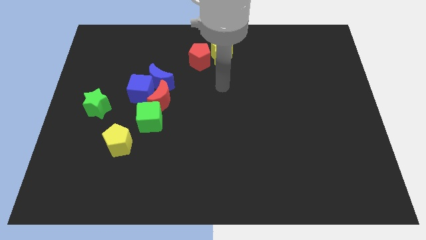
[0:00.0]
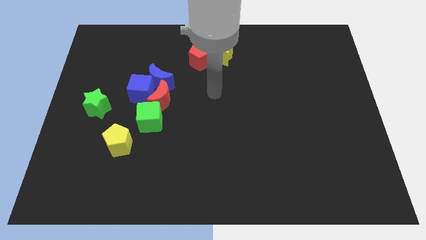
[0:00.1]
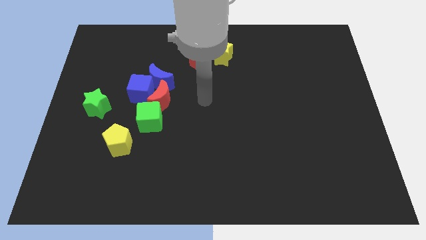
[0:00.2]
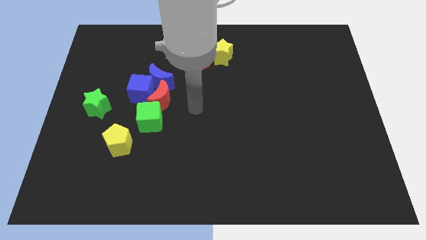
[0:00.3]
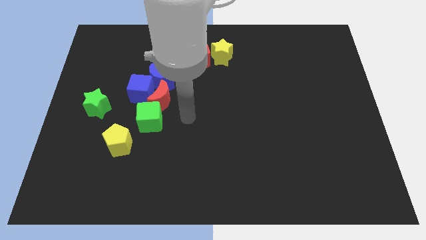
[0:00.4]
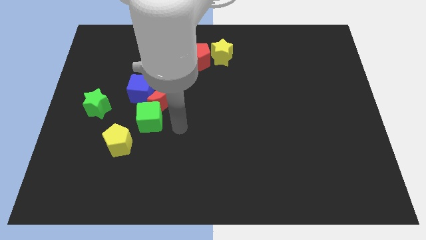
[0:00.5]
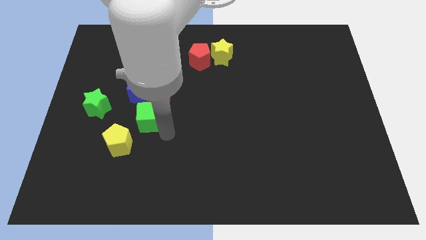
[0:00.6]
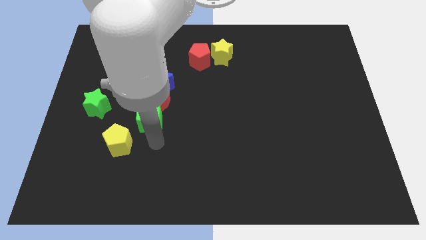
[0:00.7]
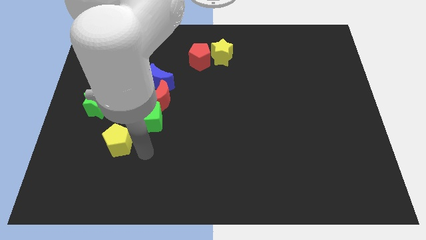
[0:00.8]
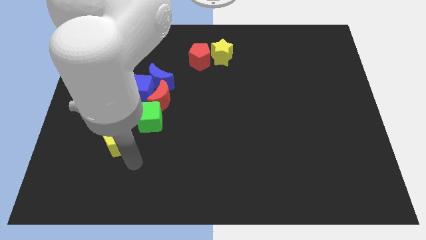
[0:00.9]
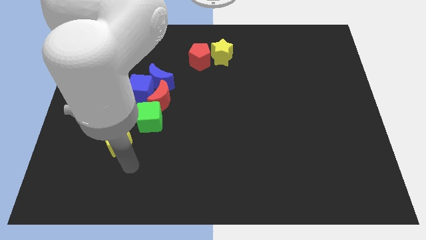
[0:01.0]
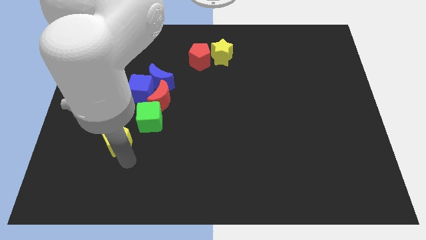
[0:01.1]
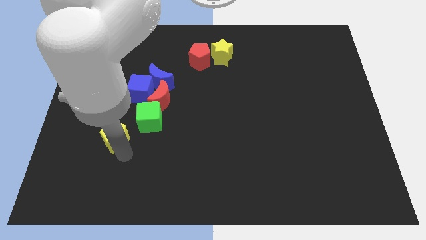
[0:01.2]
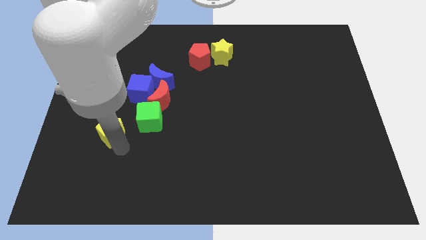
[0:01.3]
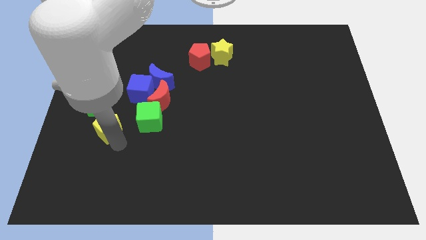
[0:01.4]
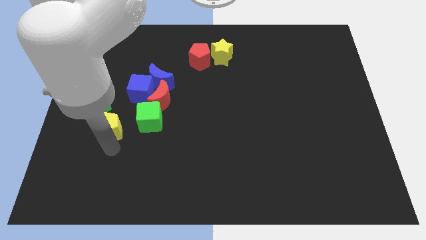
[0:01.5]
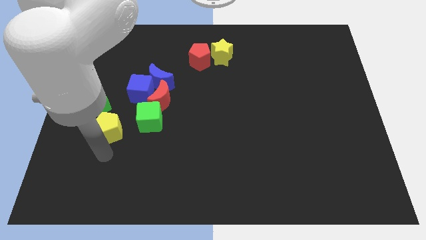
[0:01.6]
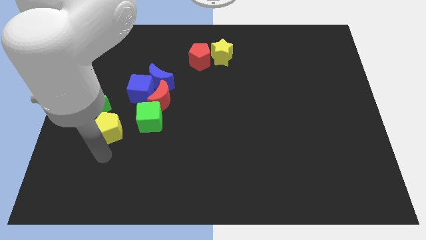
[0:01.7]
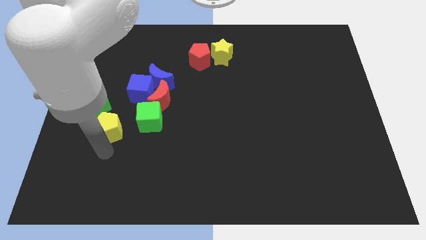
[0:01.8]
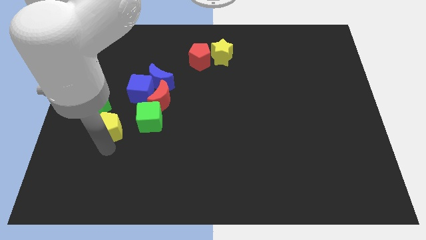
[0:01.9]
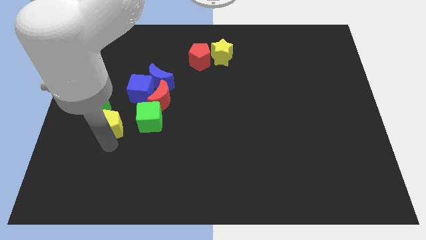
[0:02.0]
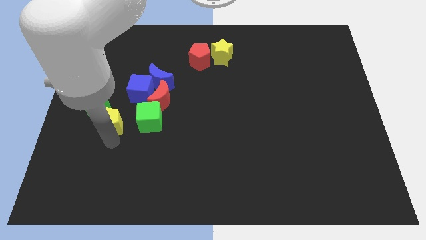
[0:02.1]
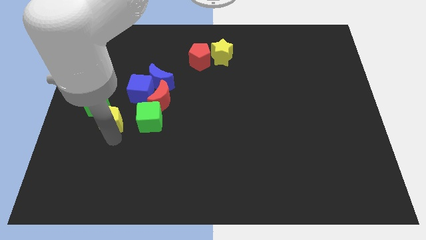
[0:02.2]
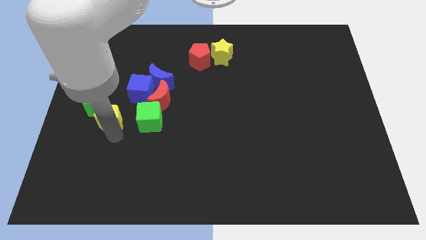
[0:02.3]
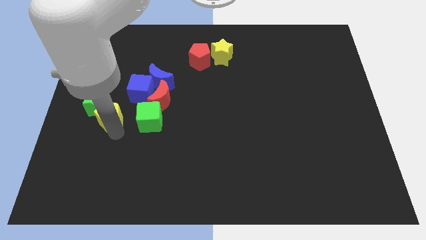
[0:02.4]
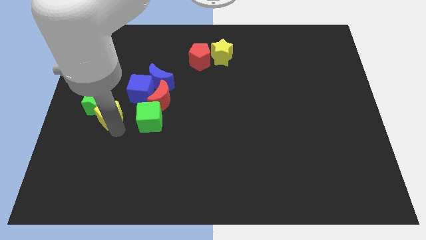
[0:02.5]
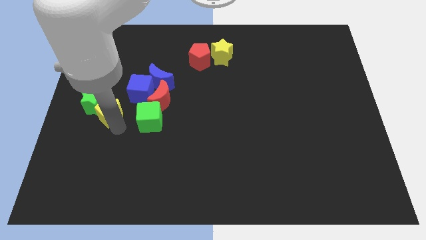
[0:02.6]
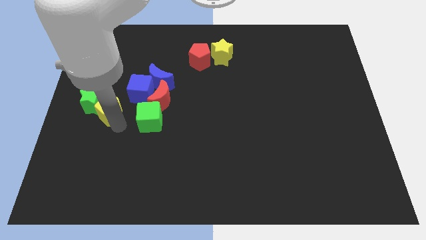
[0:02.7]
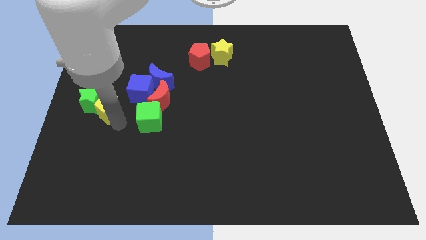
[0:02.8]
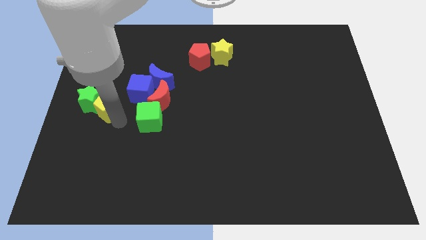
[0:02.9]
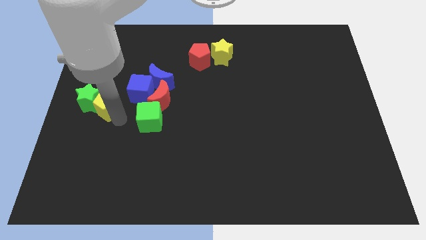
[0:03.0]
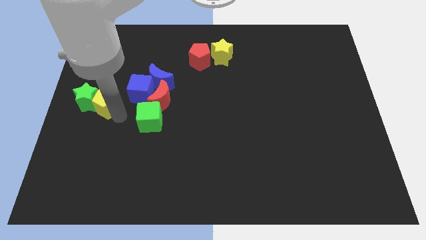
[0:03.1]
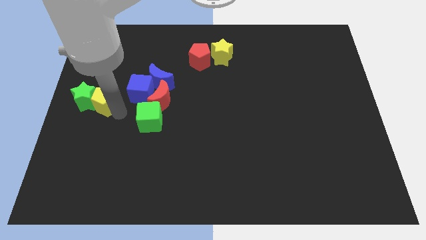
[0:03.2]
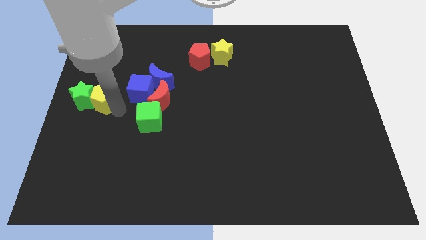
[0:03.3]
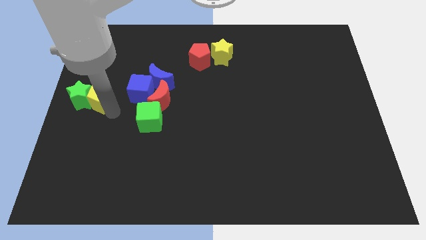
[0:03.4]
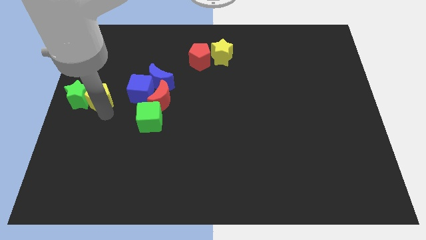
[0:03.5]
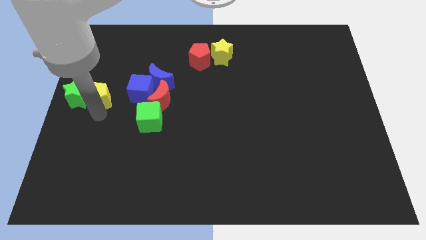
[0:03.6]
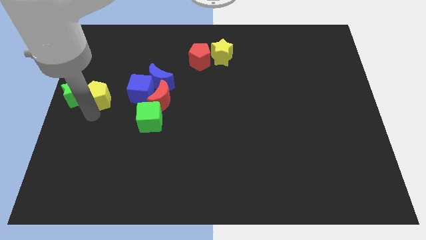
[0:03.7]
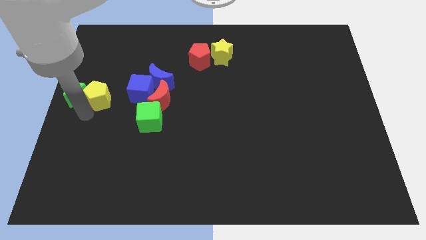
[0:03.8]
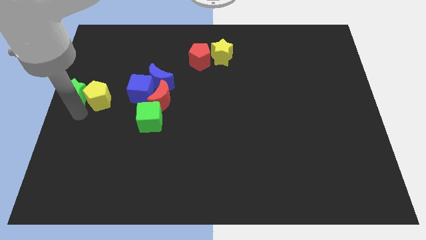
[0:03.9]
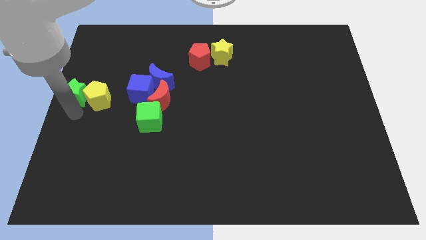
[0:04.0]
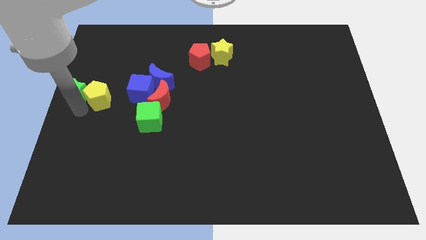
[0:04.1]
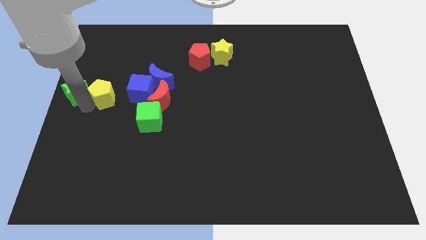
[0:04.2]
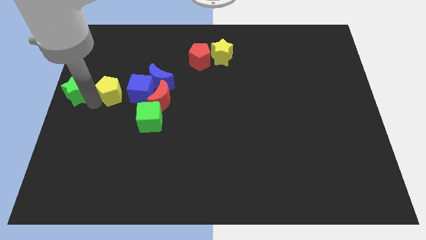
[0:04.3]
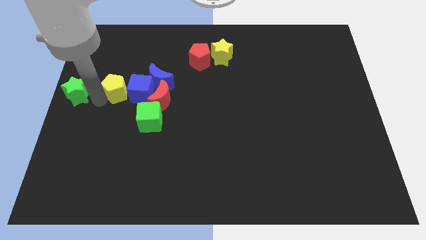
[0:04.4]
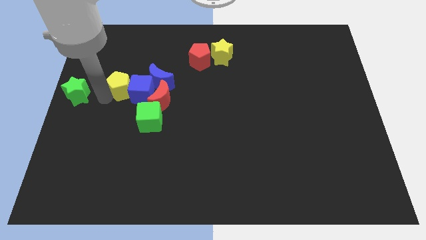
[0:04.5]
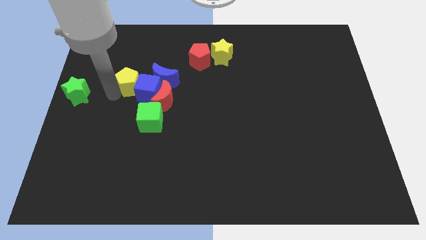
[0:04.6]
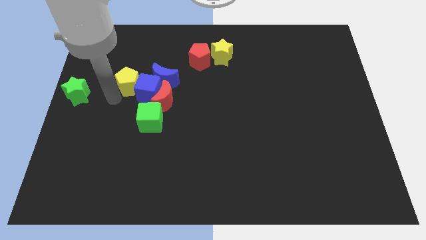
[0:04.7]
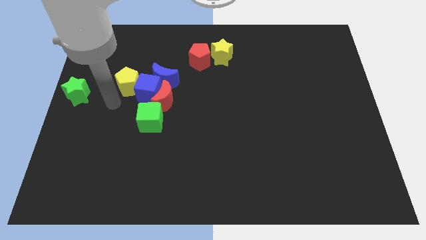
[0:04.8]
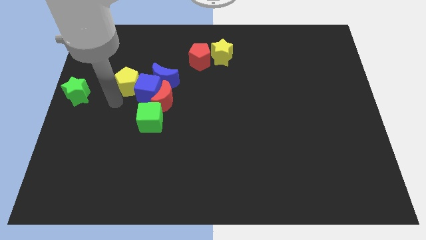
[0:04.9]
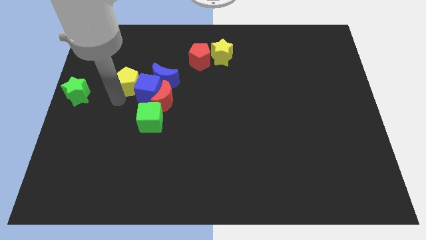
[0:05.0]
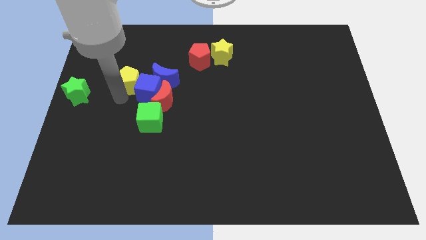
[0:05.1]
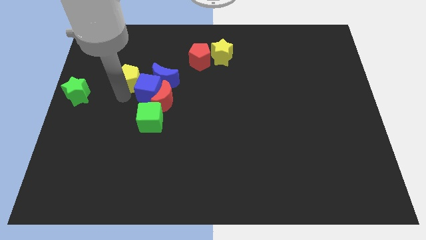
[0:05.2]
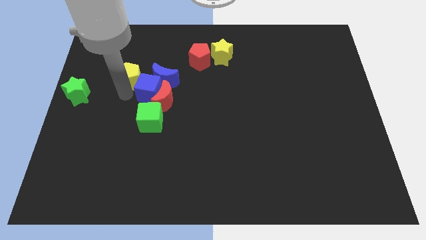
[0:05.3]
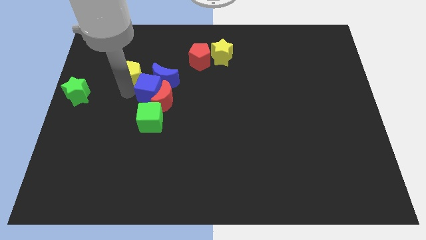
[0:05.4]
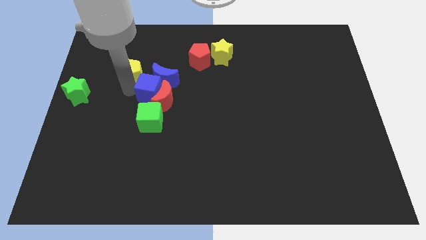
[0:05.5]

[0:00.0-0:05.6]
push the yellow pentagon to the top left of the blue moon

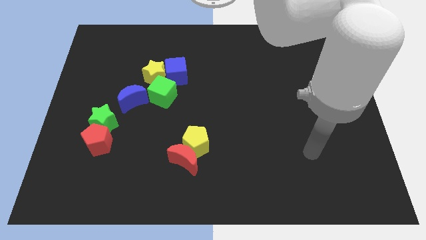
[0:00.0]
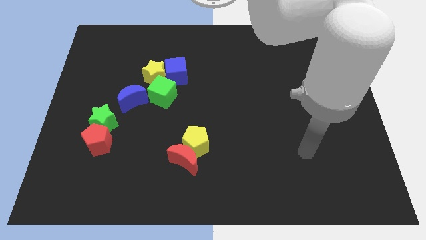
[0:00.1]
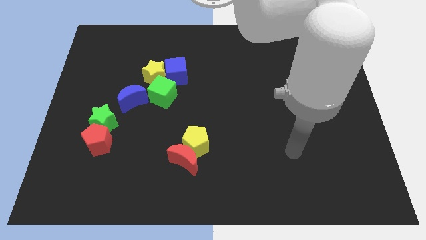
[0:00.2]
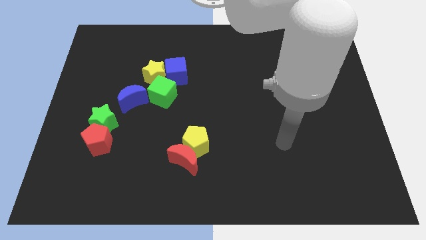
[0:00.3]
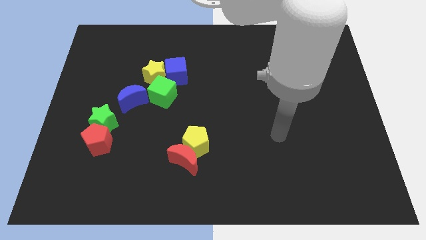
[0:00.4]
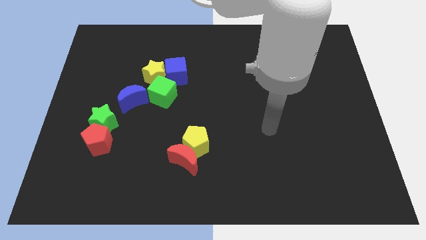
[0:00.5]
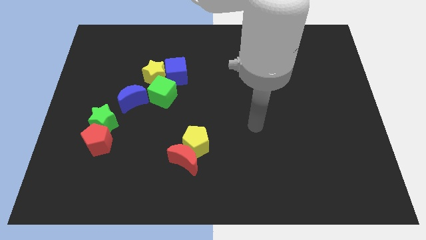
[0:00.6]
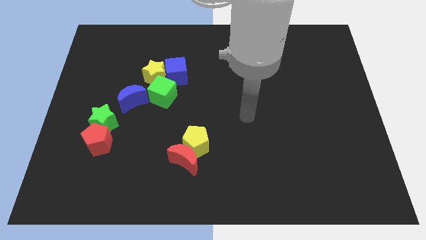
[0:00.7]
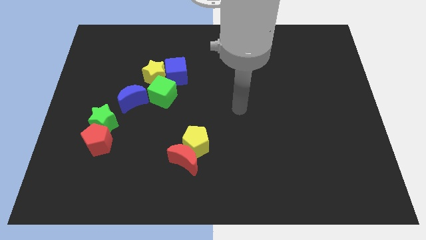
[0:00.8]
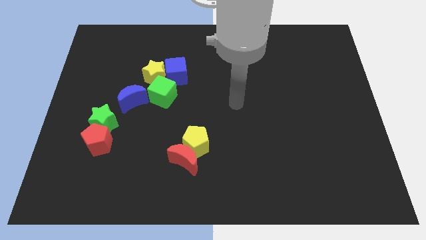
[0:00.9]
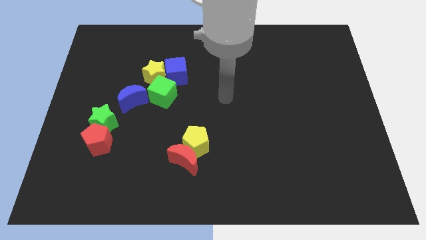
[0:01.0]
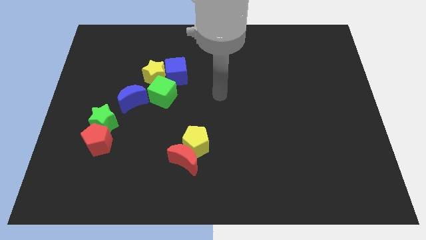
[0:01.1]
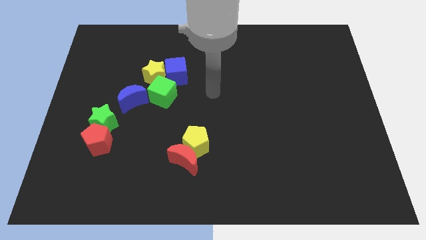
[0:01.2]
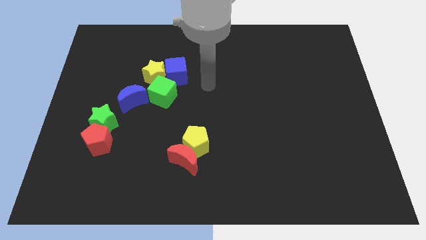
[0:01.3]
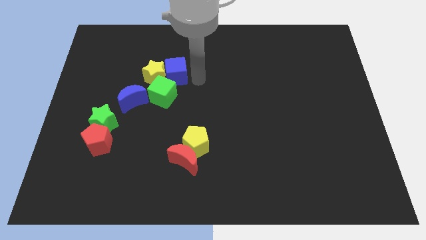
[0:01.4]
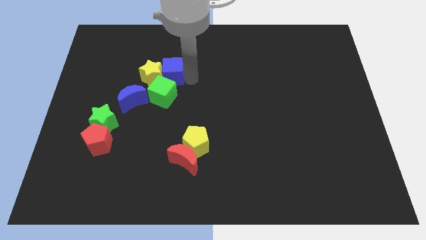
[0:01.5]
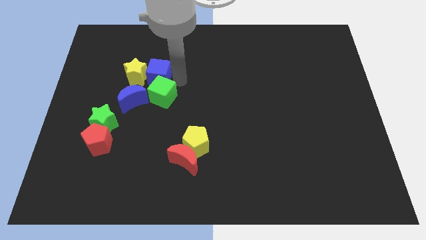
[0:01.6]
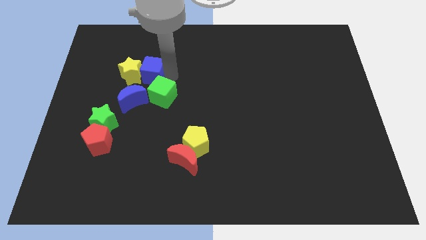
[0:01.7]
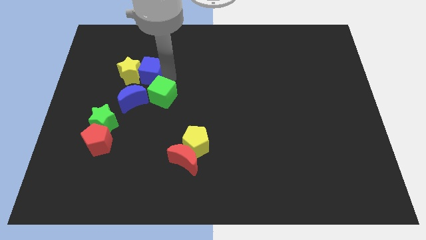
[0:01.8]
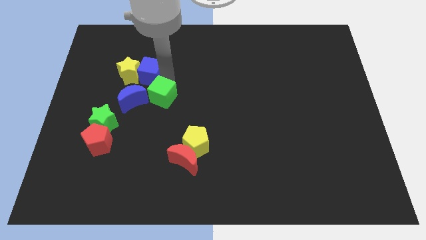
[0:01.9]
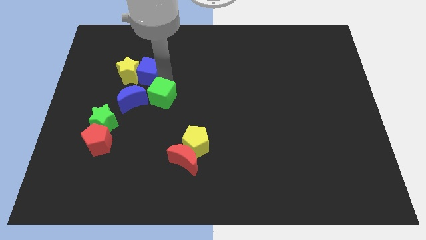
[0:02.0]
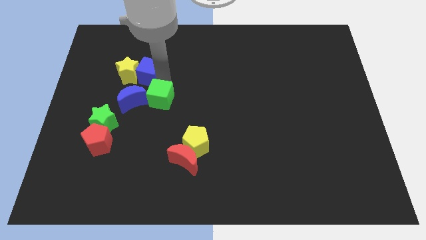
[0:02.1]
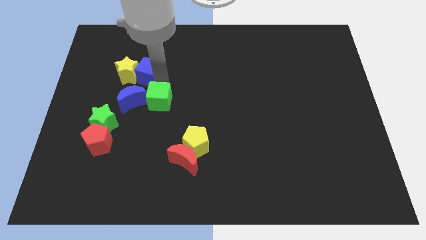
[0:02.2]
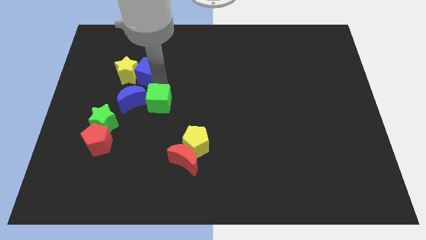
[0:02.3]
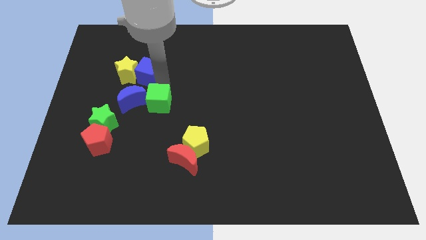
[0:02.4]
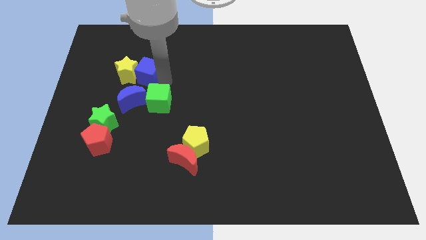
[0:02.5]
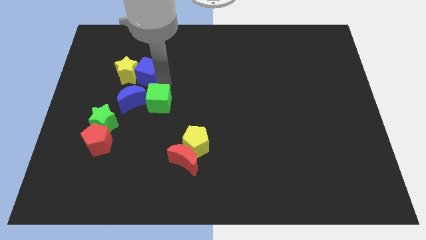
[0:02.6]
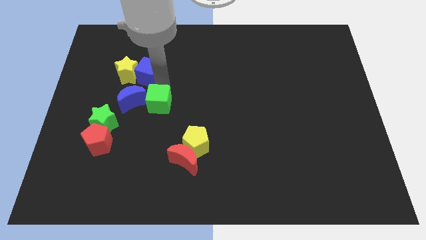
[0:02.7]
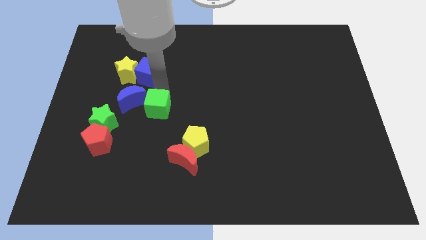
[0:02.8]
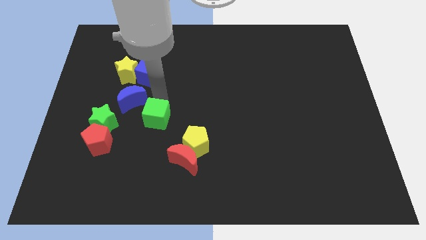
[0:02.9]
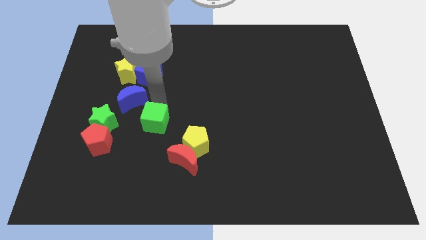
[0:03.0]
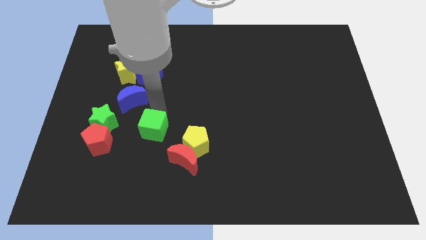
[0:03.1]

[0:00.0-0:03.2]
put the green cube right of the red pentagon
